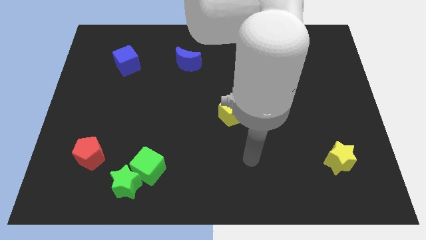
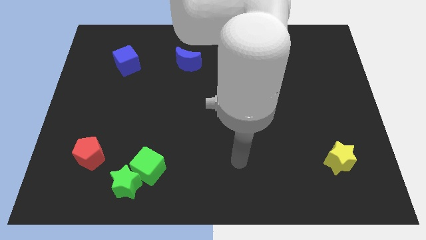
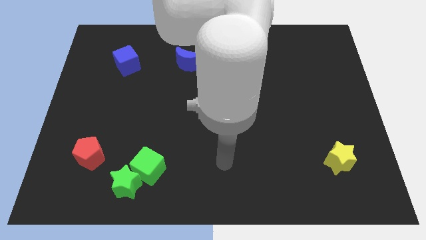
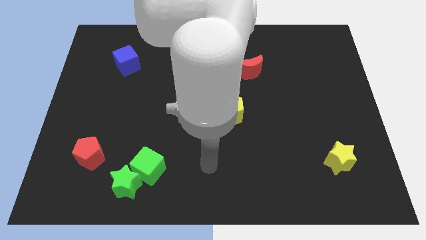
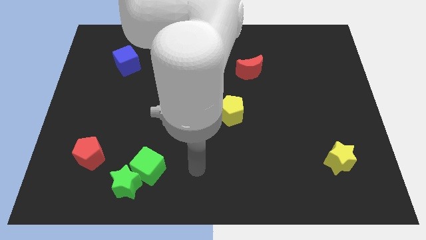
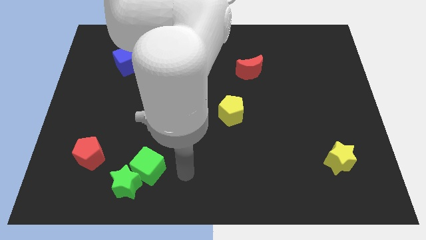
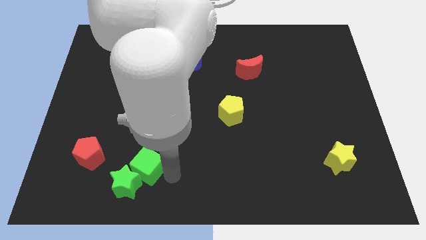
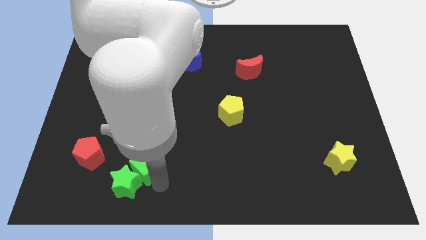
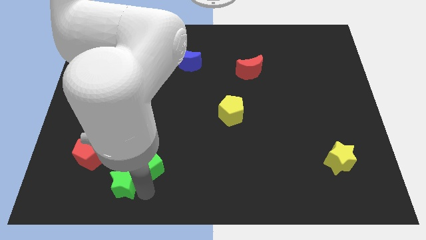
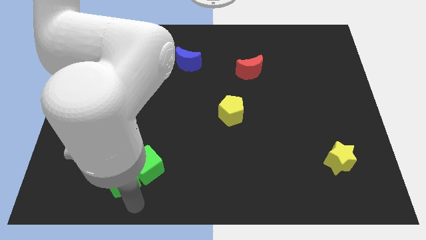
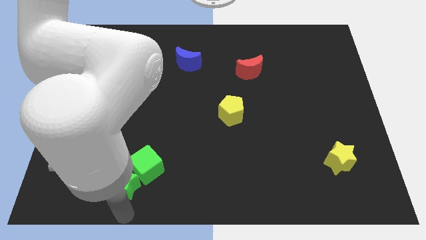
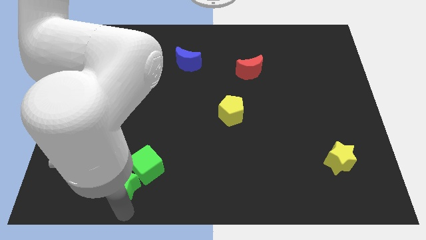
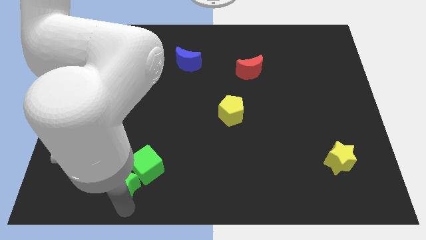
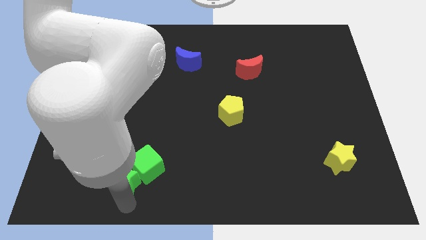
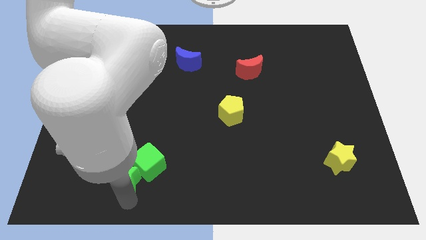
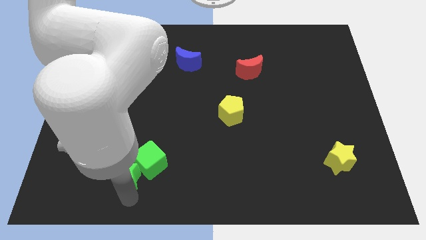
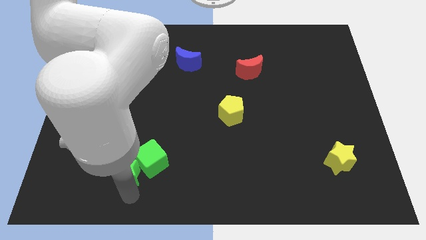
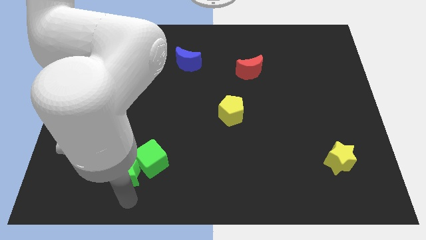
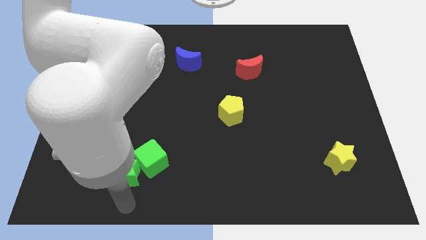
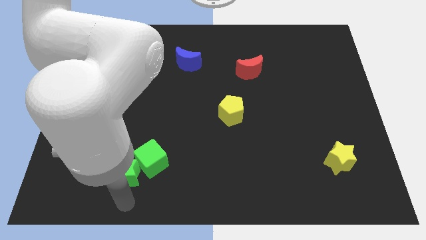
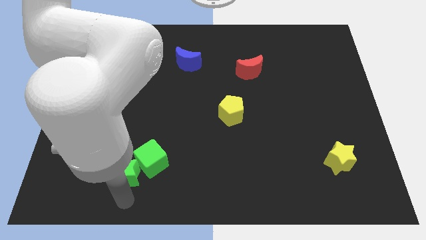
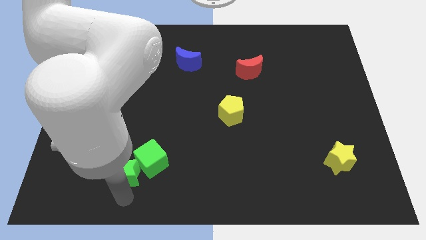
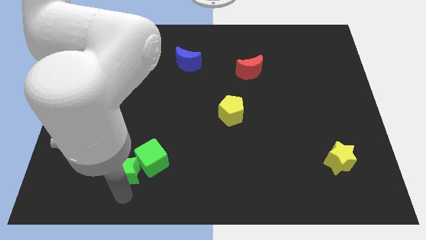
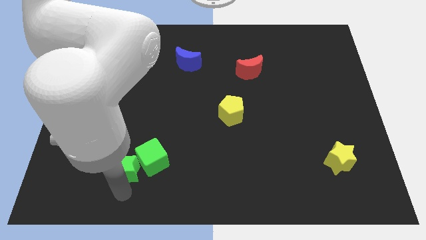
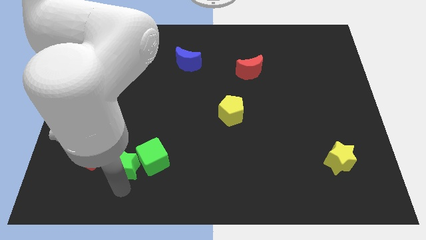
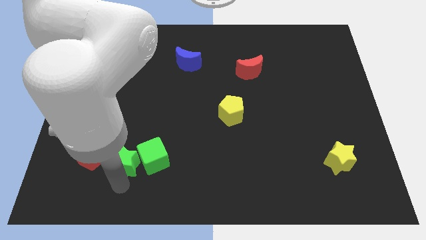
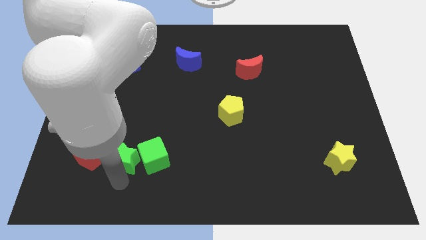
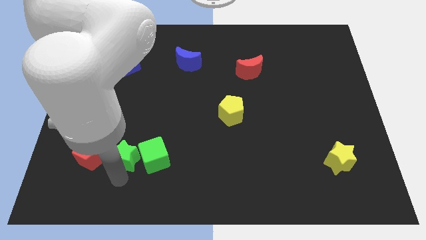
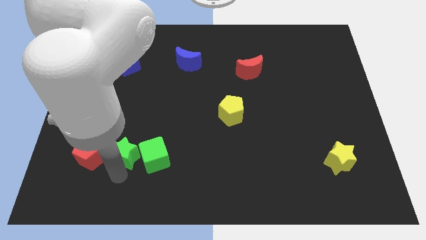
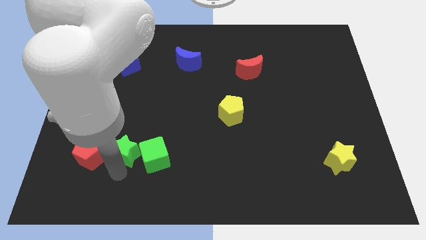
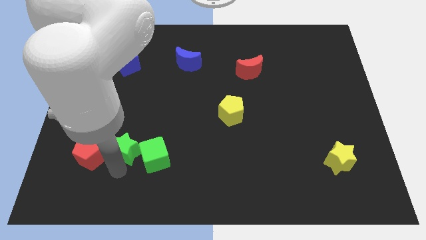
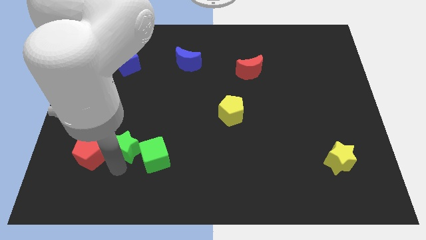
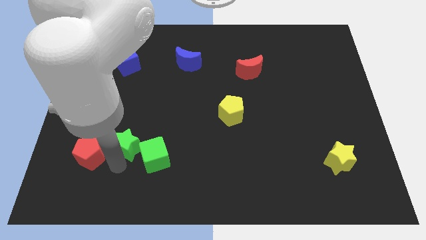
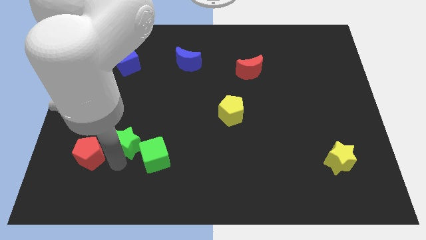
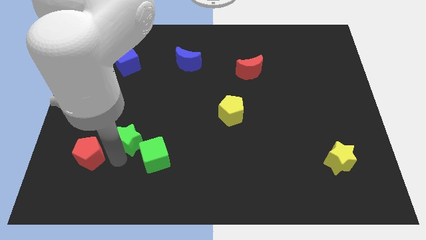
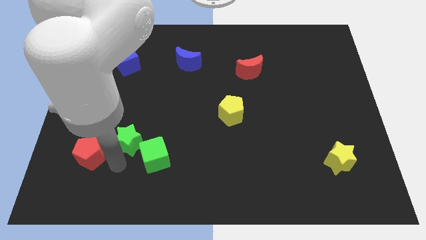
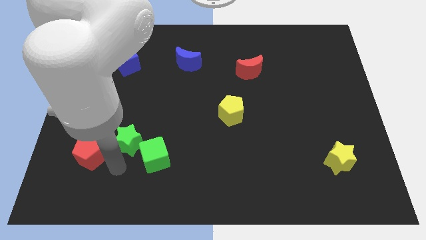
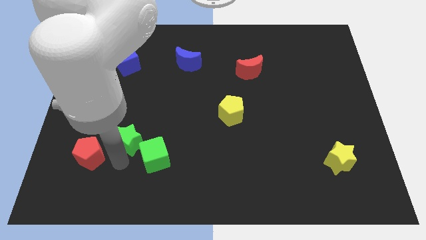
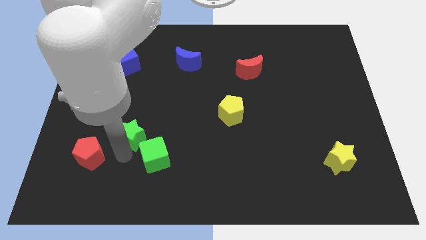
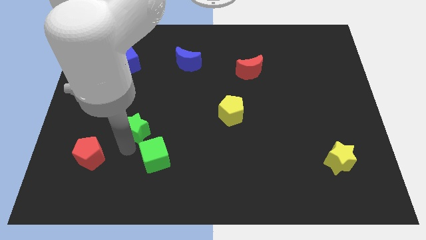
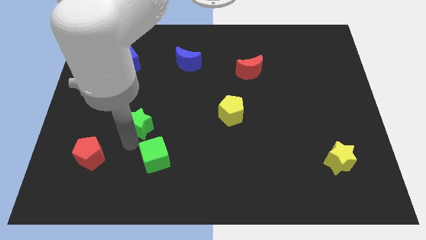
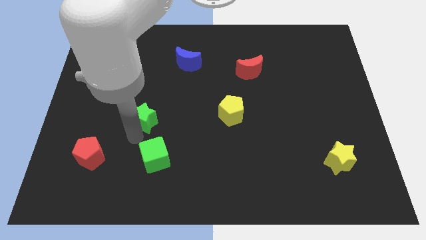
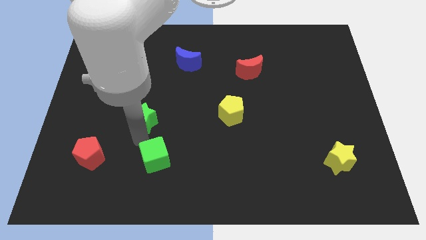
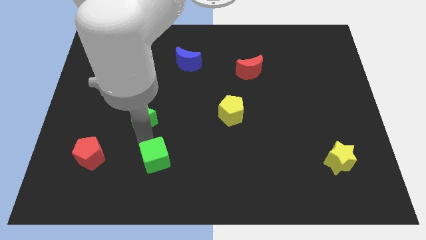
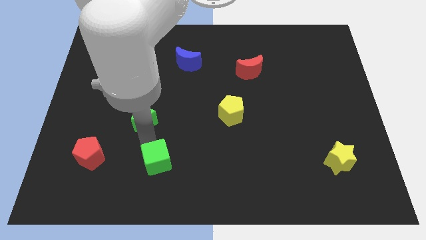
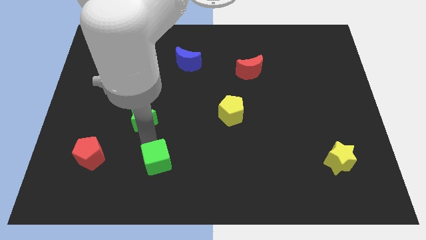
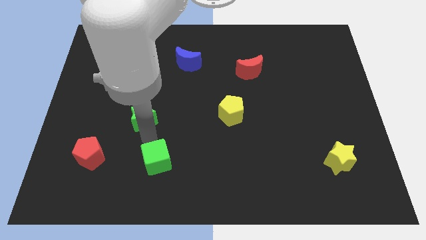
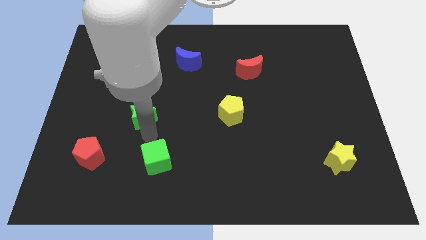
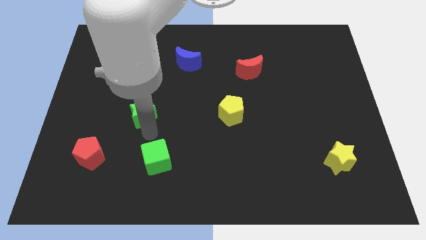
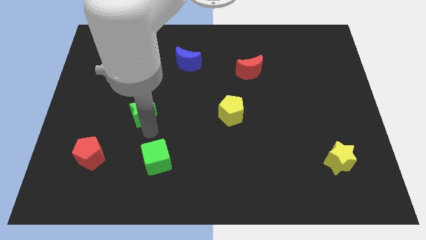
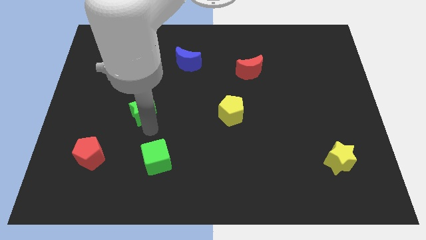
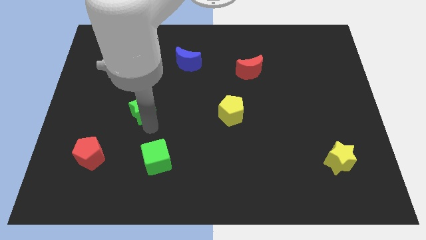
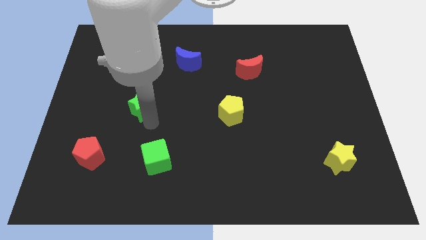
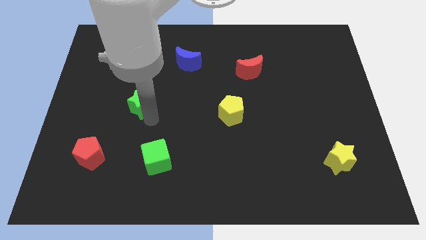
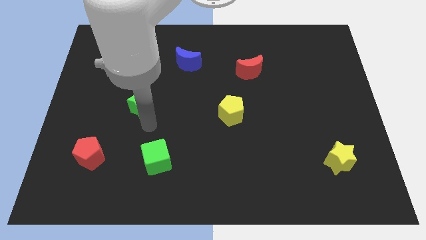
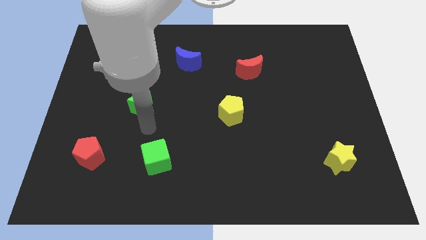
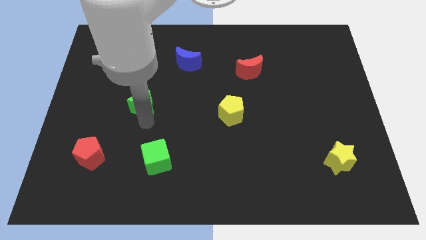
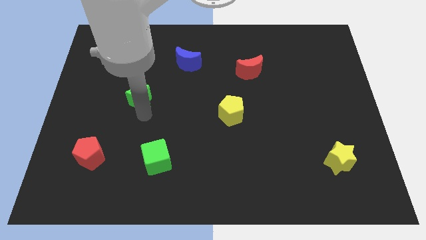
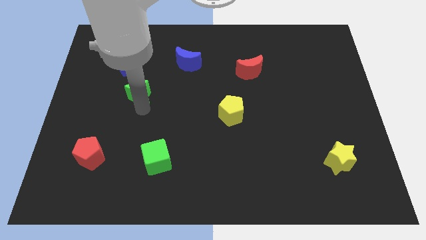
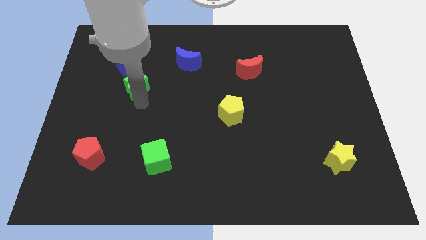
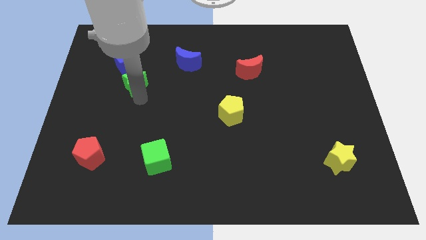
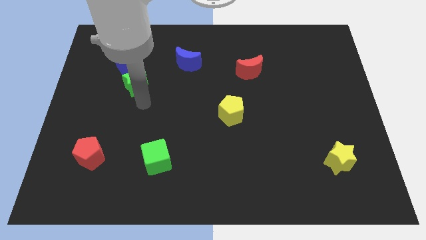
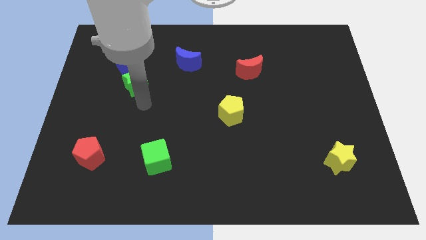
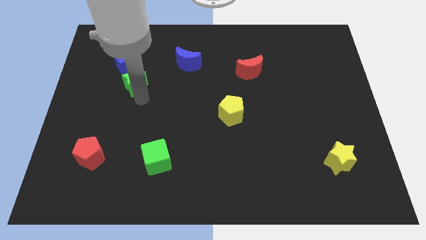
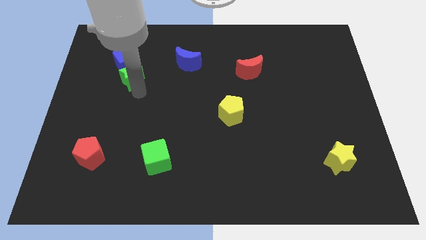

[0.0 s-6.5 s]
move the green star next to the blue cube

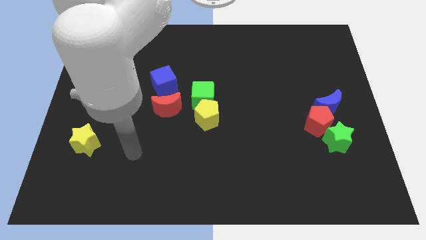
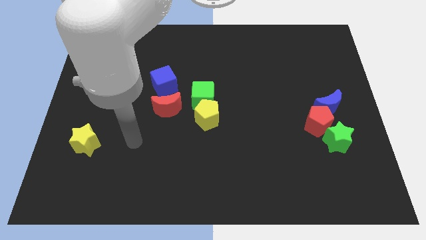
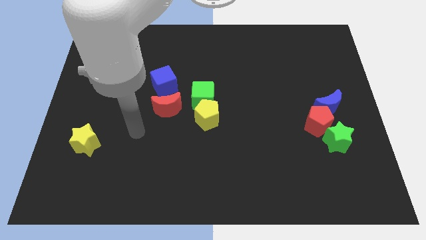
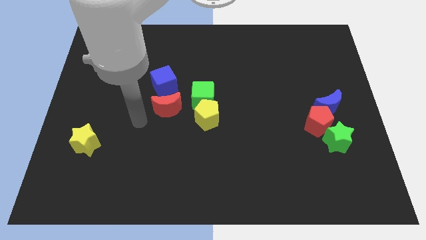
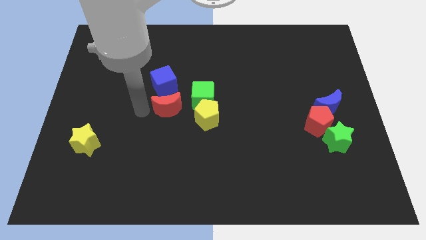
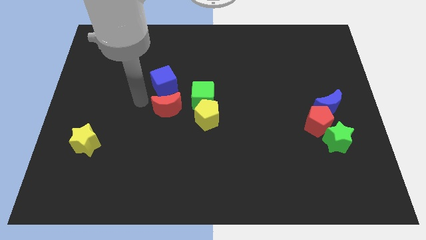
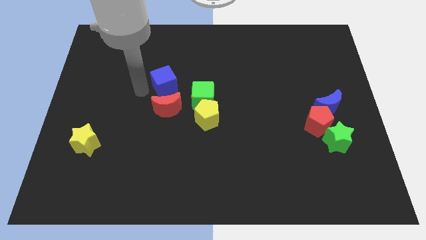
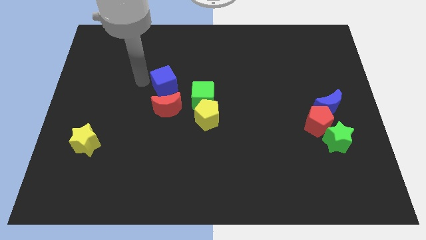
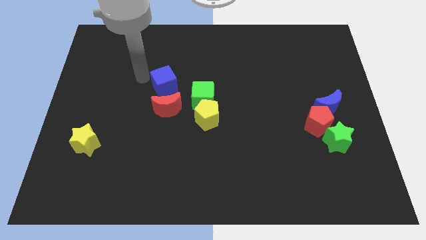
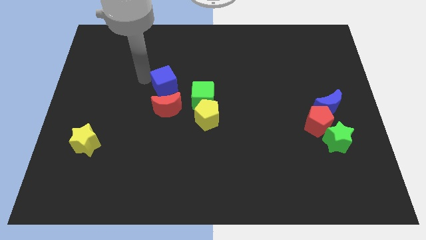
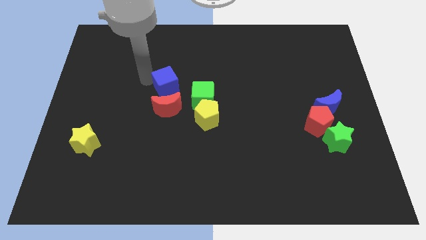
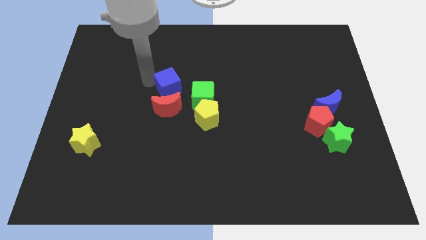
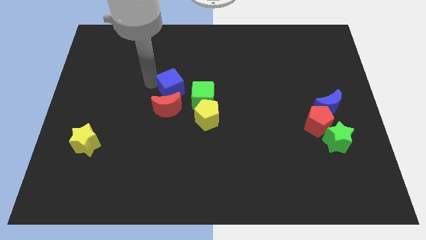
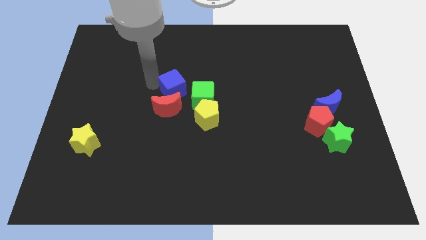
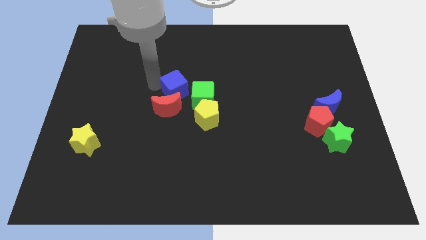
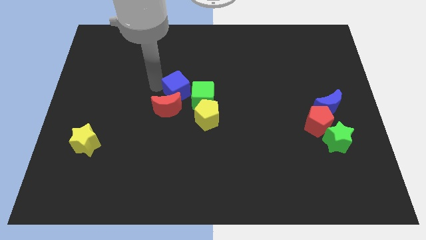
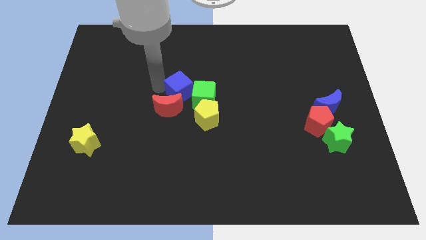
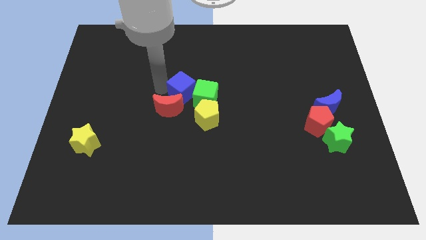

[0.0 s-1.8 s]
slide the blue cube close to the green cube
